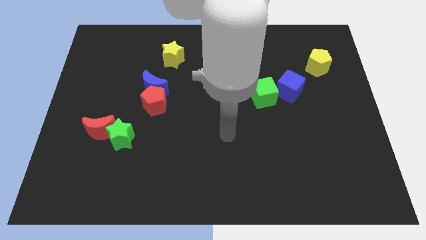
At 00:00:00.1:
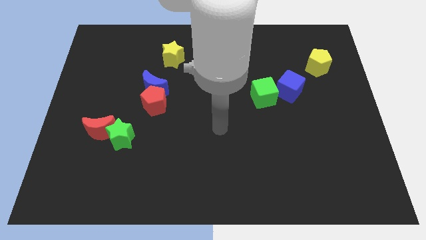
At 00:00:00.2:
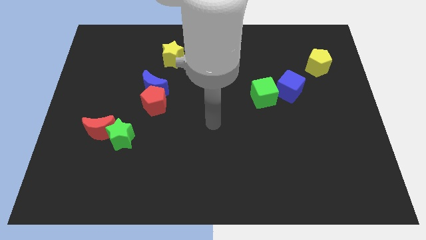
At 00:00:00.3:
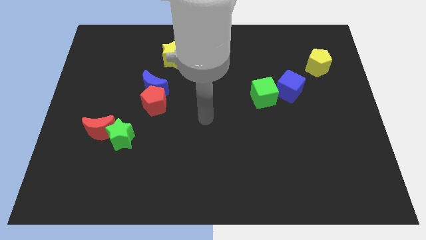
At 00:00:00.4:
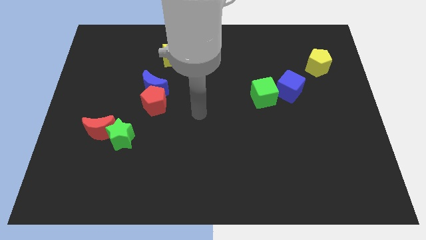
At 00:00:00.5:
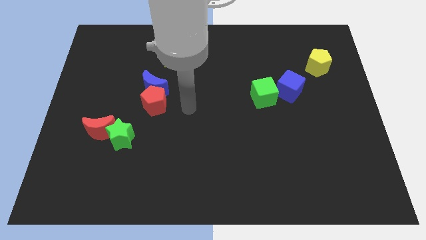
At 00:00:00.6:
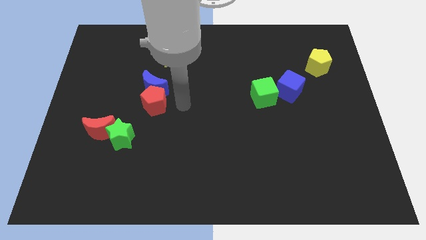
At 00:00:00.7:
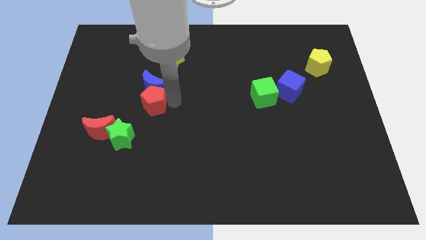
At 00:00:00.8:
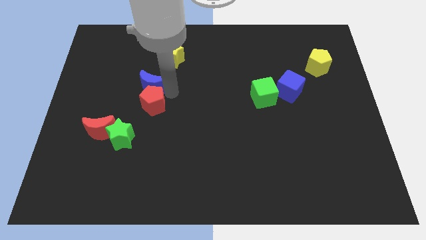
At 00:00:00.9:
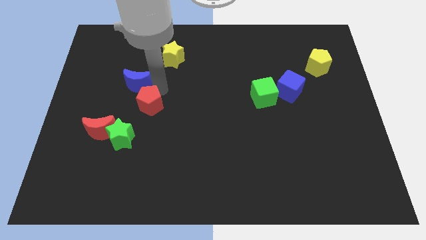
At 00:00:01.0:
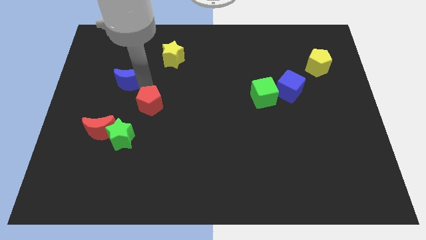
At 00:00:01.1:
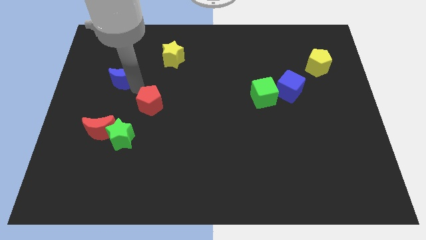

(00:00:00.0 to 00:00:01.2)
pull the red pentagon apart from the blue moon

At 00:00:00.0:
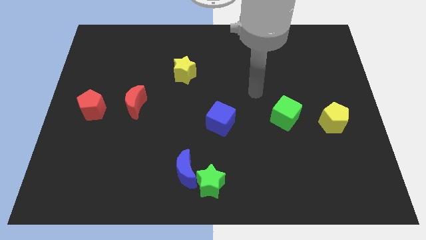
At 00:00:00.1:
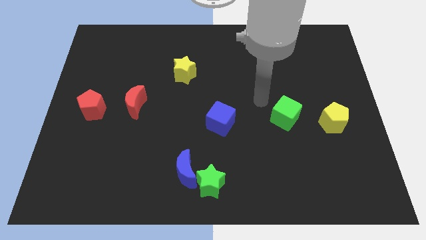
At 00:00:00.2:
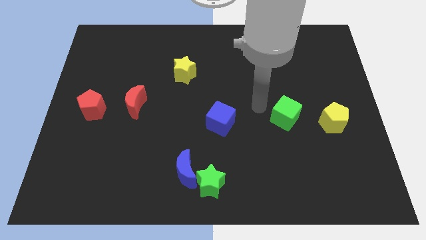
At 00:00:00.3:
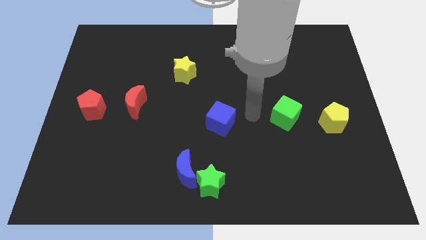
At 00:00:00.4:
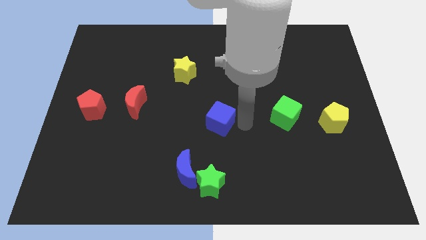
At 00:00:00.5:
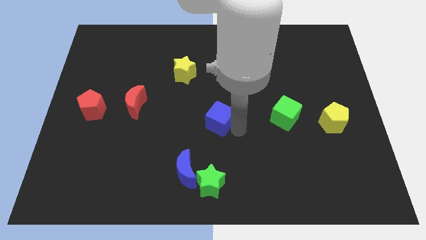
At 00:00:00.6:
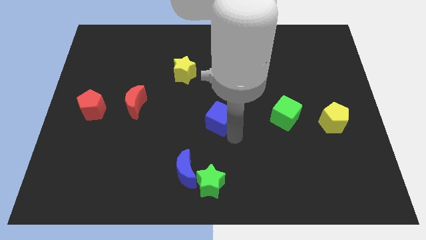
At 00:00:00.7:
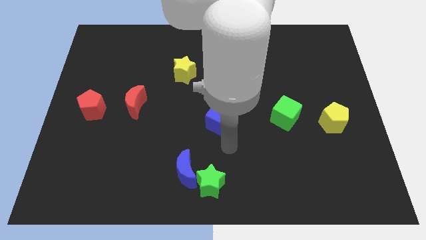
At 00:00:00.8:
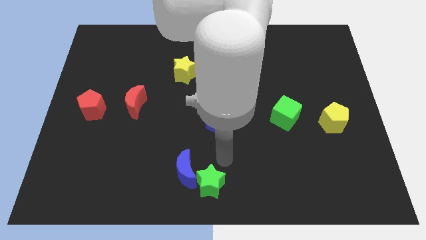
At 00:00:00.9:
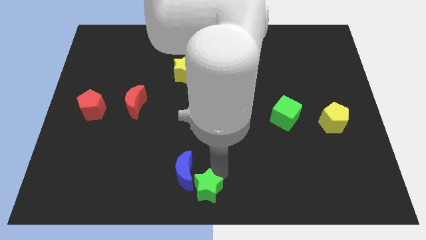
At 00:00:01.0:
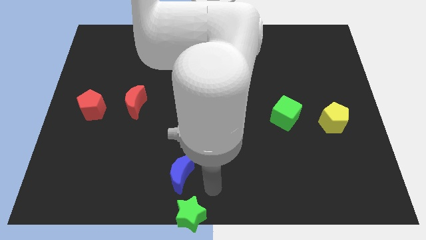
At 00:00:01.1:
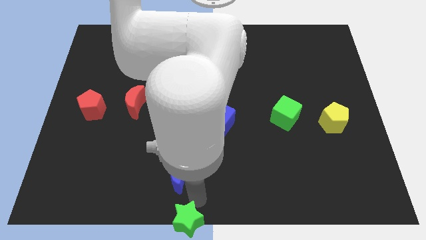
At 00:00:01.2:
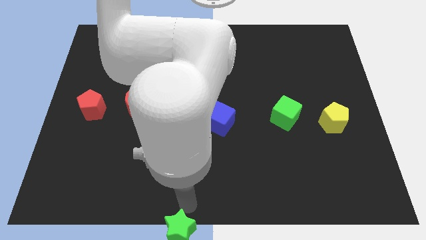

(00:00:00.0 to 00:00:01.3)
separate the blue moon from the green star

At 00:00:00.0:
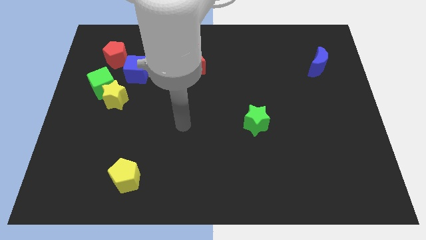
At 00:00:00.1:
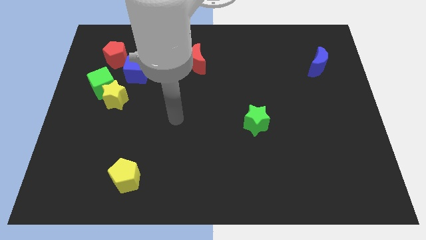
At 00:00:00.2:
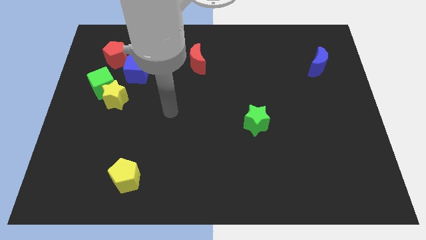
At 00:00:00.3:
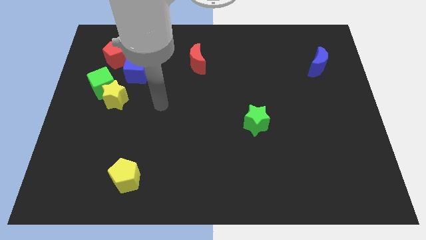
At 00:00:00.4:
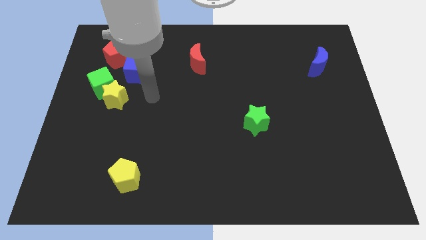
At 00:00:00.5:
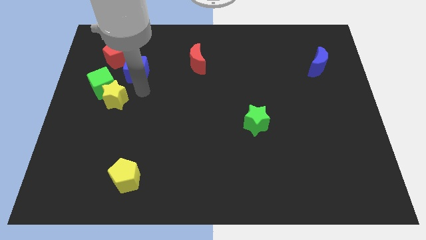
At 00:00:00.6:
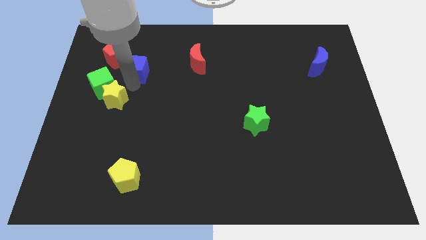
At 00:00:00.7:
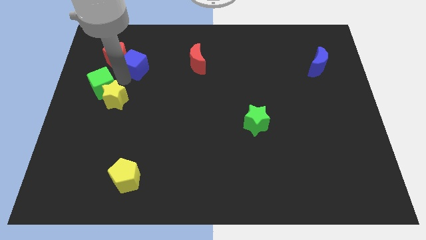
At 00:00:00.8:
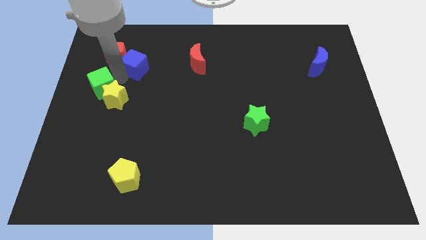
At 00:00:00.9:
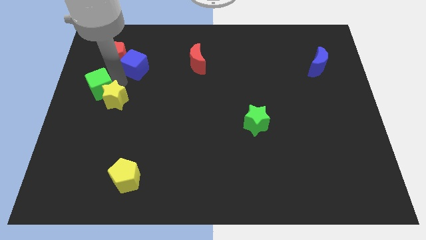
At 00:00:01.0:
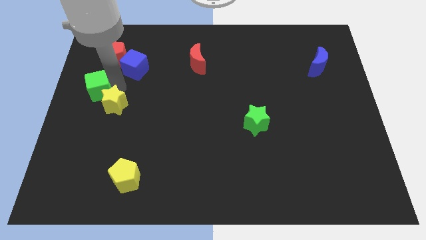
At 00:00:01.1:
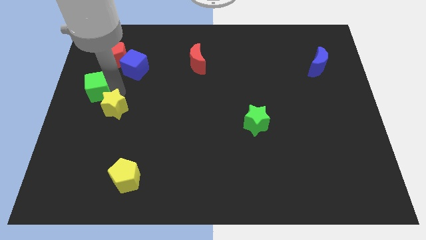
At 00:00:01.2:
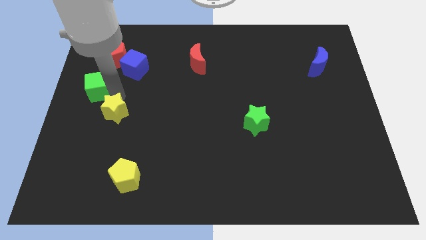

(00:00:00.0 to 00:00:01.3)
move the yellow star away from the green cube and blue cube

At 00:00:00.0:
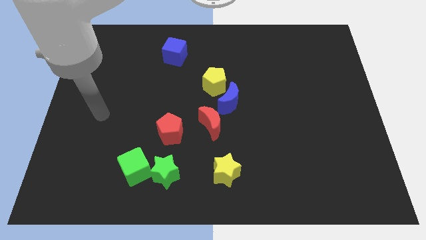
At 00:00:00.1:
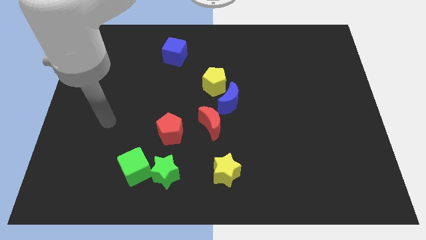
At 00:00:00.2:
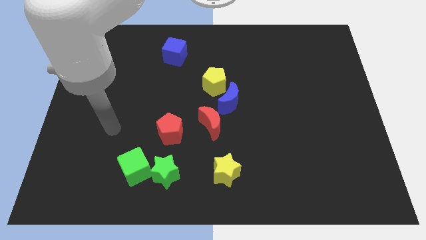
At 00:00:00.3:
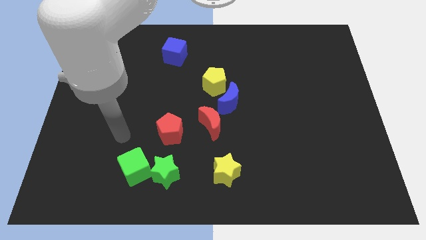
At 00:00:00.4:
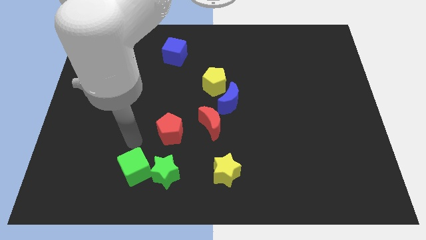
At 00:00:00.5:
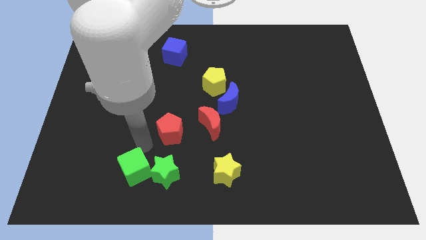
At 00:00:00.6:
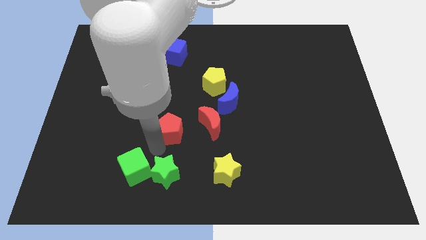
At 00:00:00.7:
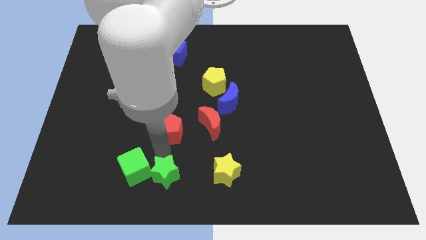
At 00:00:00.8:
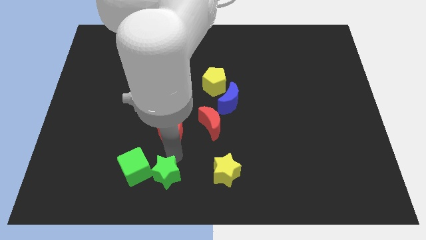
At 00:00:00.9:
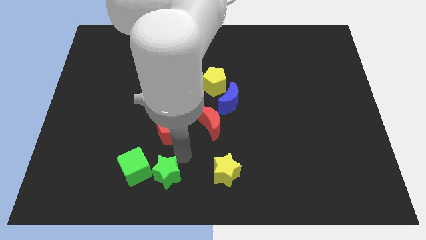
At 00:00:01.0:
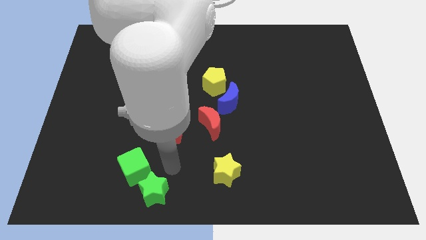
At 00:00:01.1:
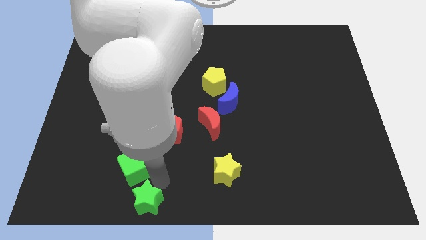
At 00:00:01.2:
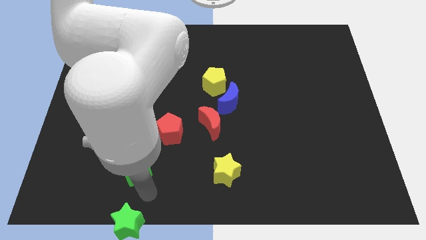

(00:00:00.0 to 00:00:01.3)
separate the green cube from the green star

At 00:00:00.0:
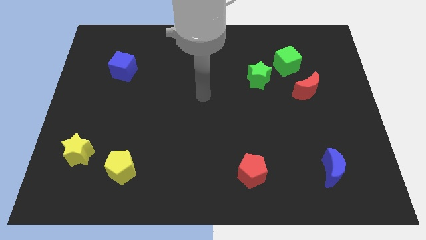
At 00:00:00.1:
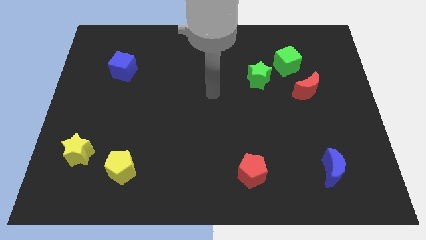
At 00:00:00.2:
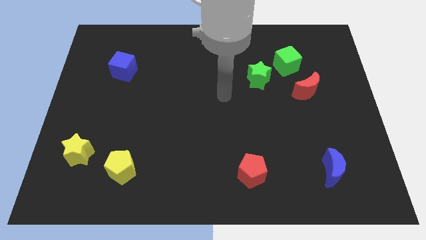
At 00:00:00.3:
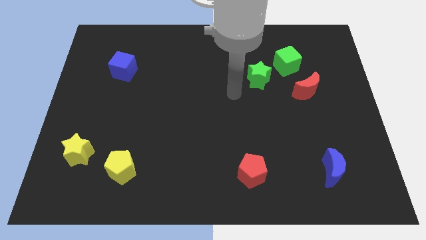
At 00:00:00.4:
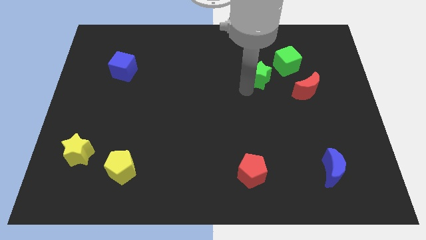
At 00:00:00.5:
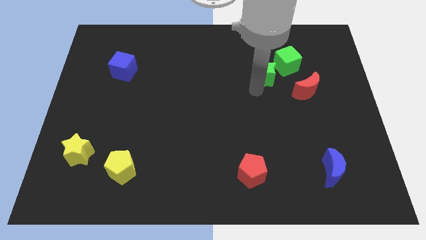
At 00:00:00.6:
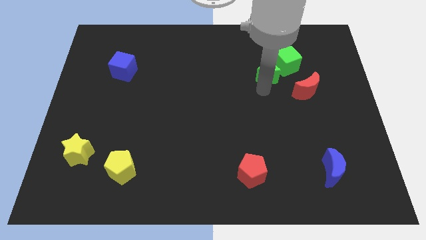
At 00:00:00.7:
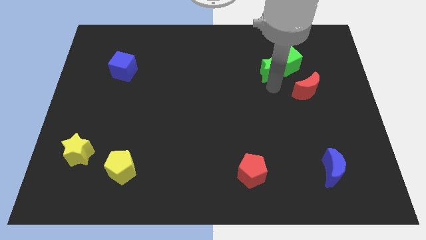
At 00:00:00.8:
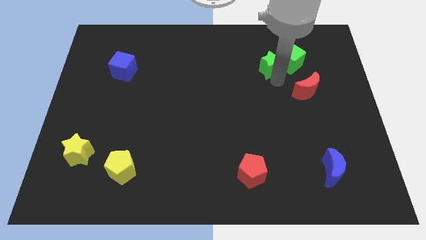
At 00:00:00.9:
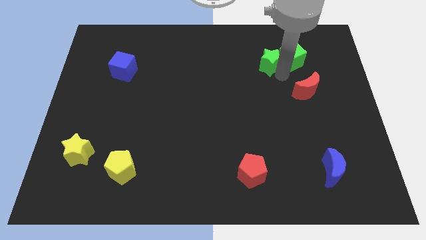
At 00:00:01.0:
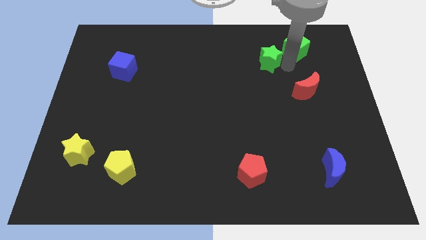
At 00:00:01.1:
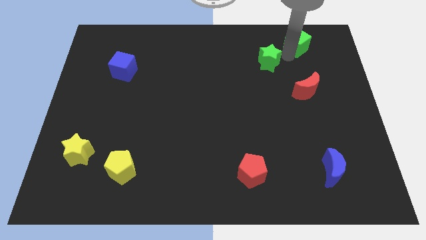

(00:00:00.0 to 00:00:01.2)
separate the green star from the green cube

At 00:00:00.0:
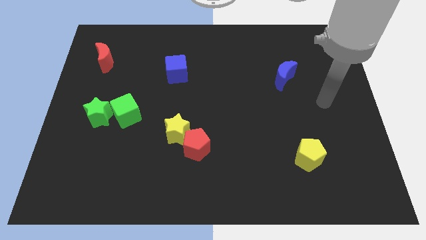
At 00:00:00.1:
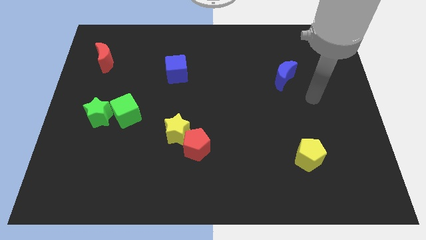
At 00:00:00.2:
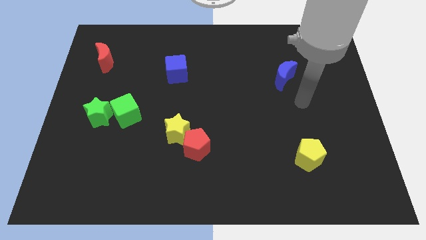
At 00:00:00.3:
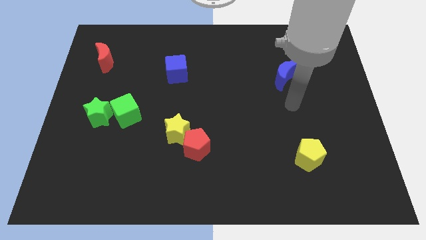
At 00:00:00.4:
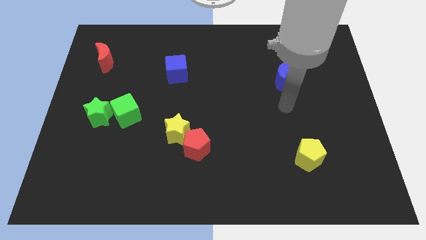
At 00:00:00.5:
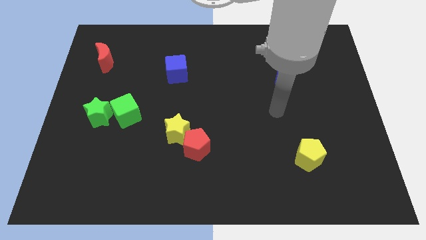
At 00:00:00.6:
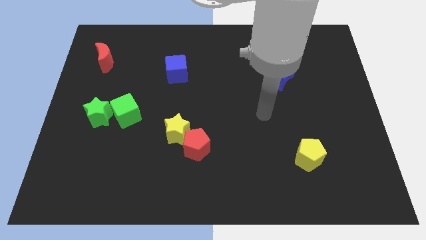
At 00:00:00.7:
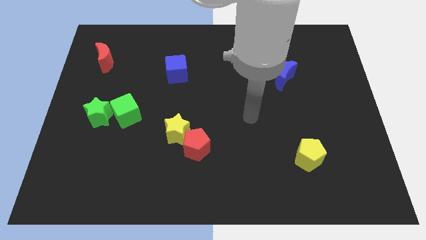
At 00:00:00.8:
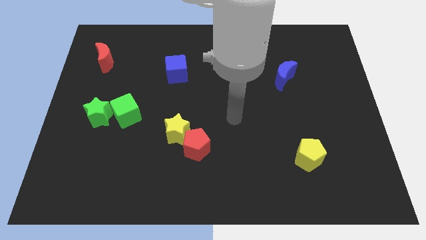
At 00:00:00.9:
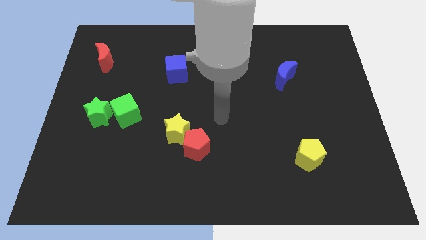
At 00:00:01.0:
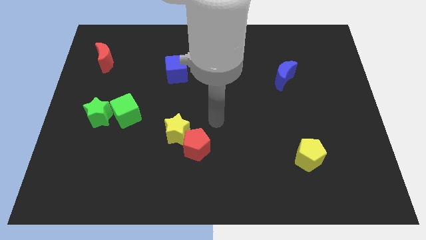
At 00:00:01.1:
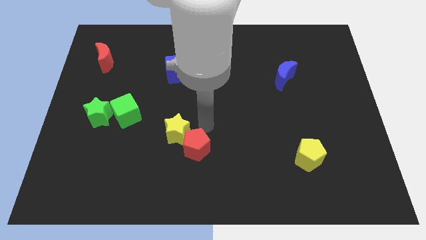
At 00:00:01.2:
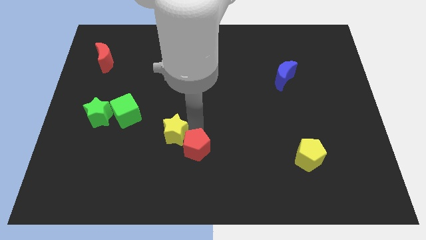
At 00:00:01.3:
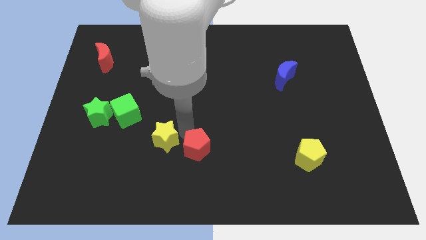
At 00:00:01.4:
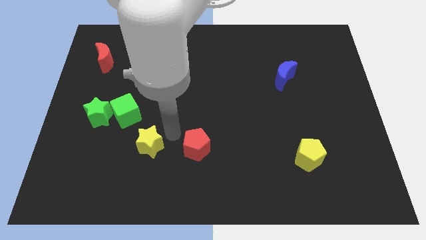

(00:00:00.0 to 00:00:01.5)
pull the red pentagon apart from the yellow star

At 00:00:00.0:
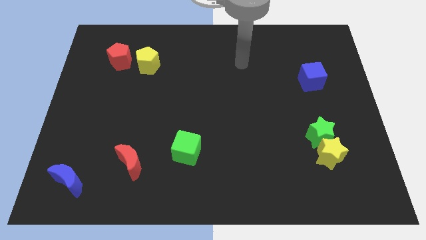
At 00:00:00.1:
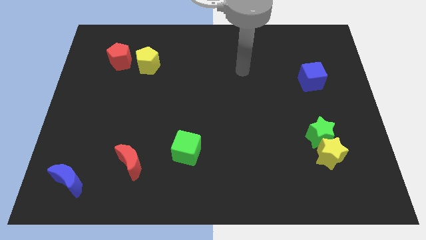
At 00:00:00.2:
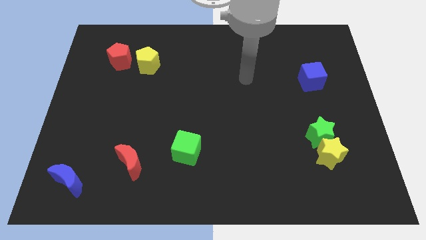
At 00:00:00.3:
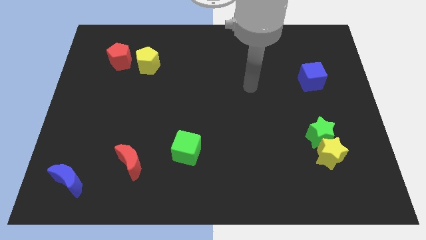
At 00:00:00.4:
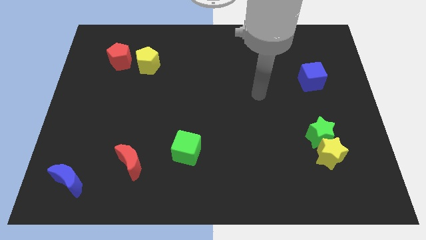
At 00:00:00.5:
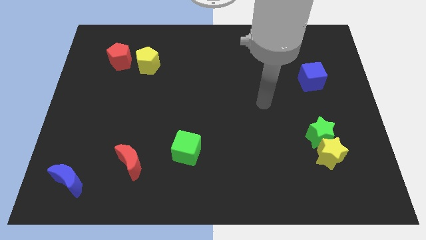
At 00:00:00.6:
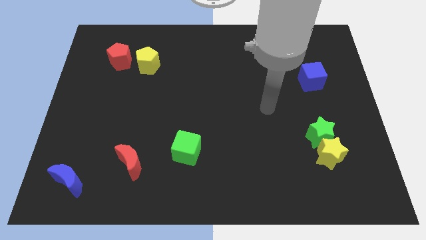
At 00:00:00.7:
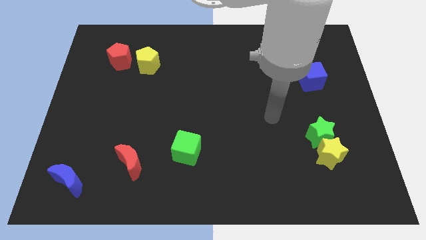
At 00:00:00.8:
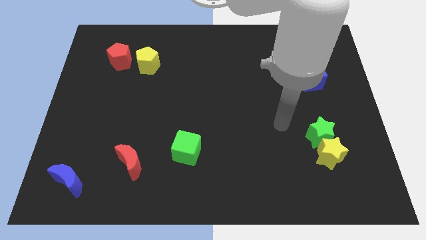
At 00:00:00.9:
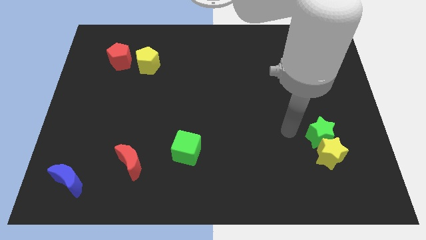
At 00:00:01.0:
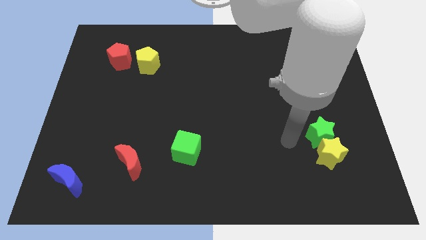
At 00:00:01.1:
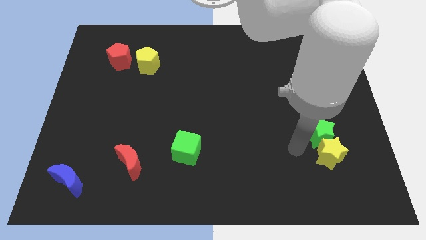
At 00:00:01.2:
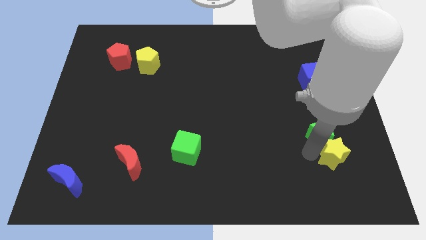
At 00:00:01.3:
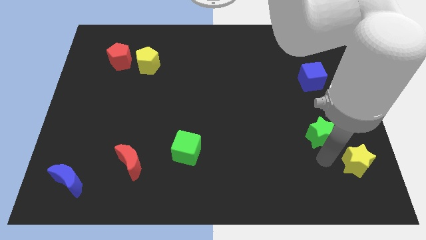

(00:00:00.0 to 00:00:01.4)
move the green star away from the yellow star
